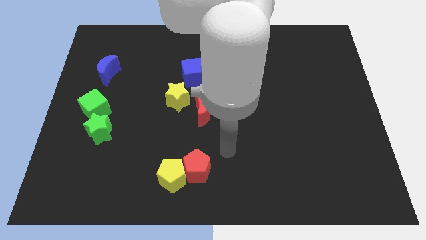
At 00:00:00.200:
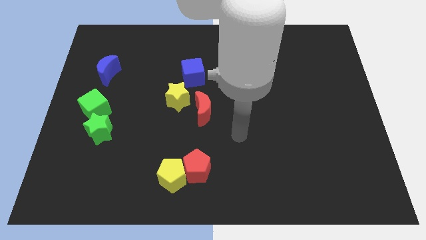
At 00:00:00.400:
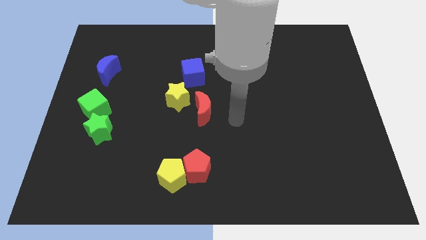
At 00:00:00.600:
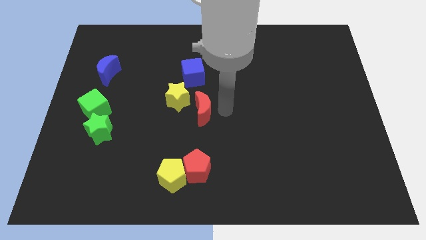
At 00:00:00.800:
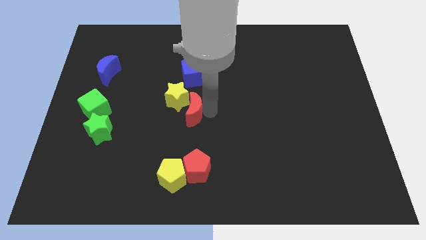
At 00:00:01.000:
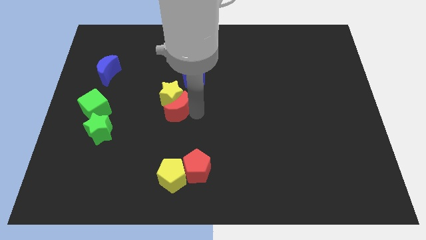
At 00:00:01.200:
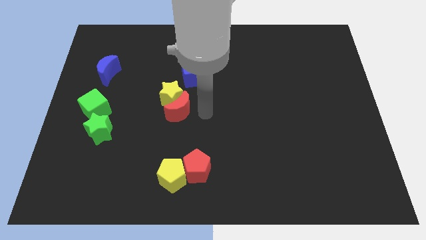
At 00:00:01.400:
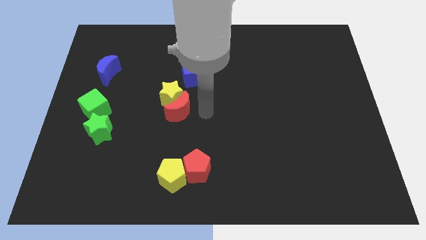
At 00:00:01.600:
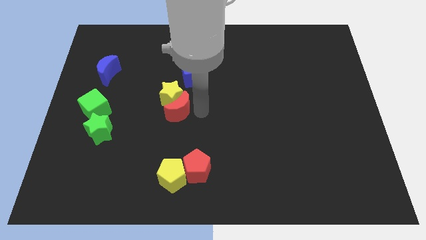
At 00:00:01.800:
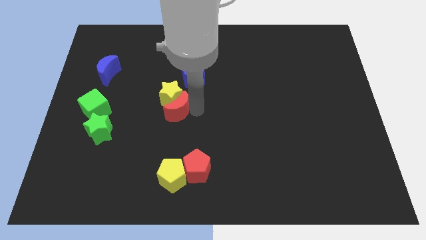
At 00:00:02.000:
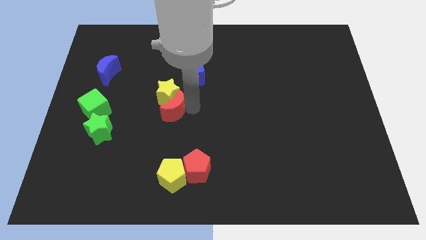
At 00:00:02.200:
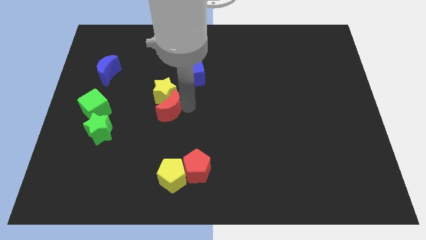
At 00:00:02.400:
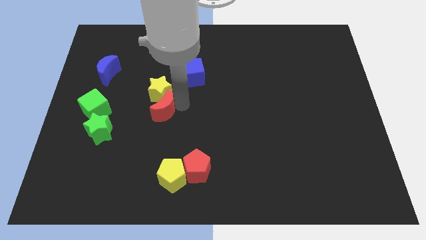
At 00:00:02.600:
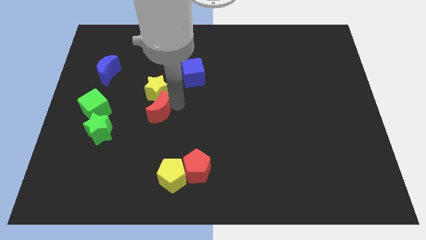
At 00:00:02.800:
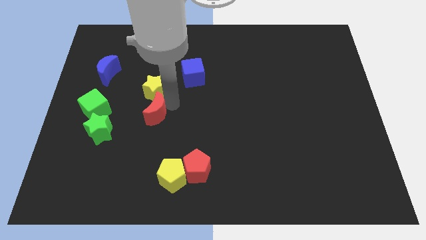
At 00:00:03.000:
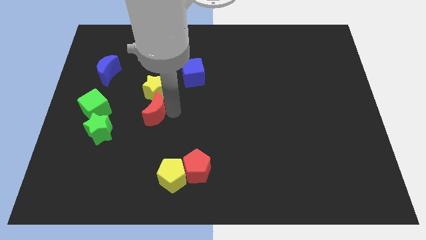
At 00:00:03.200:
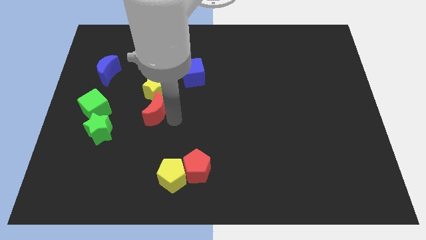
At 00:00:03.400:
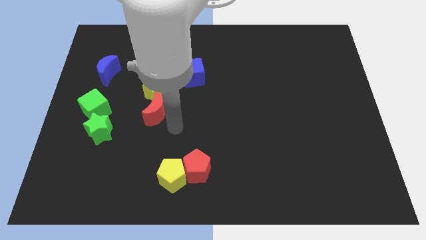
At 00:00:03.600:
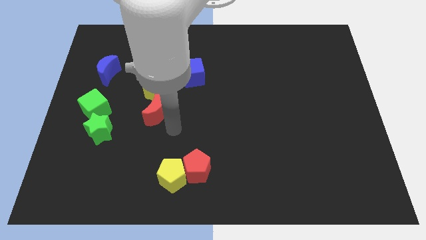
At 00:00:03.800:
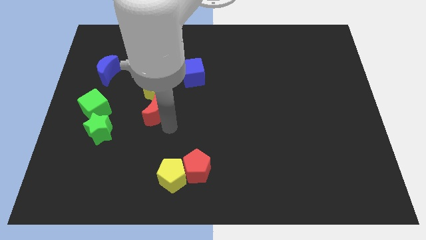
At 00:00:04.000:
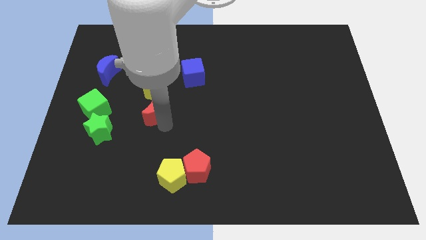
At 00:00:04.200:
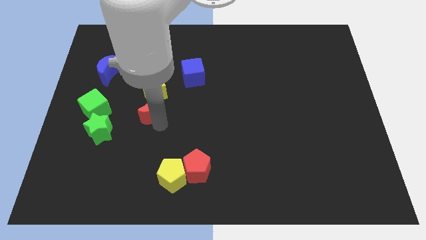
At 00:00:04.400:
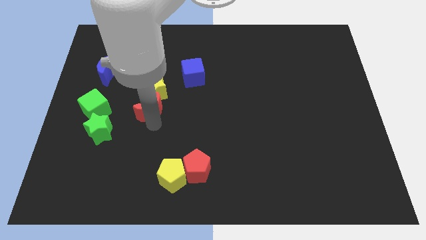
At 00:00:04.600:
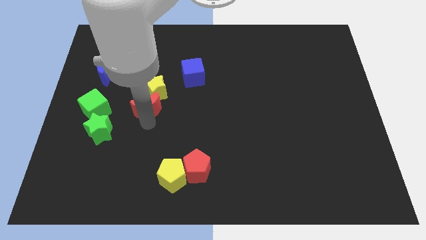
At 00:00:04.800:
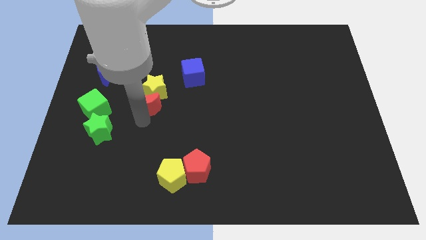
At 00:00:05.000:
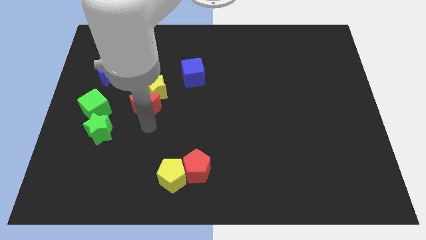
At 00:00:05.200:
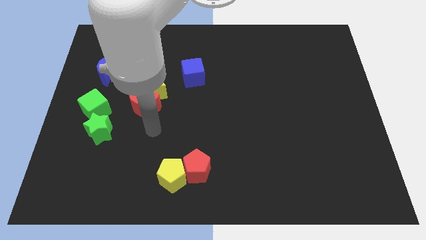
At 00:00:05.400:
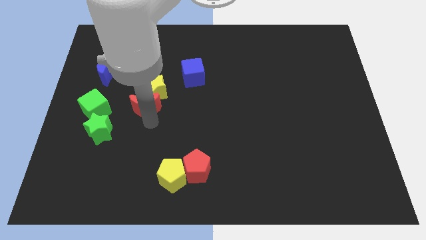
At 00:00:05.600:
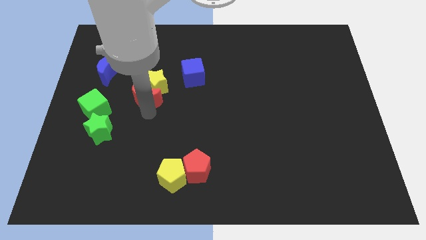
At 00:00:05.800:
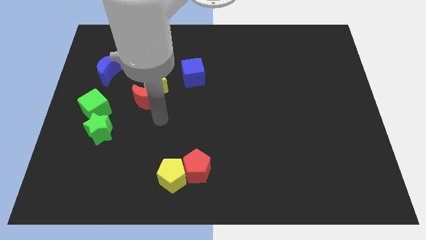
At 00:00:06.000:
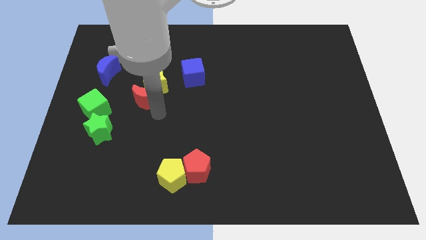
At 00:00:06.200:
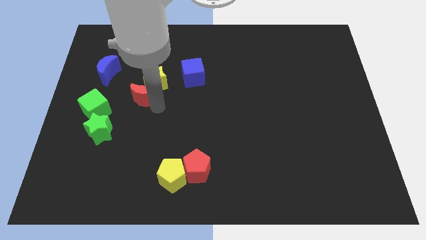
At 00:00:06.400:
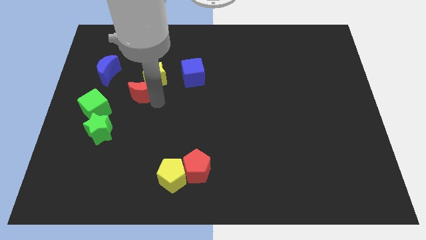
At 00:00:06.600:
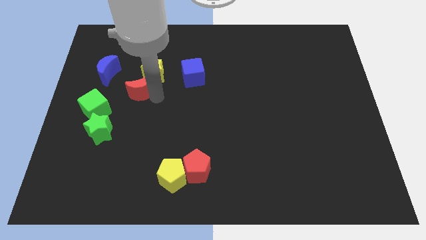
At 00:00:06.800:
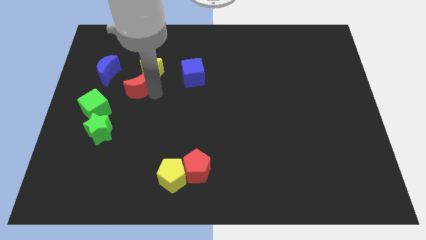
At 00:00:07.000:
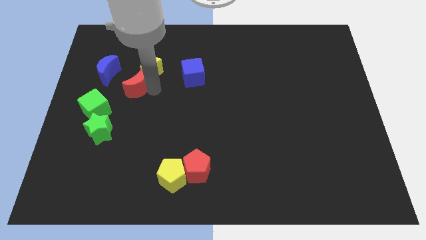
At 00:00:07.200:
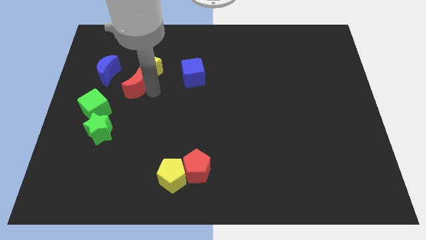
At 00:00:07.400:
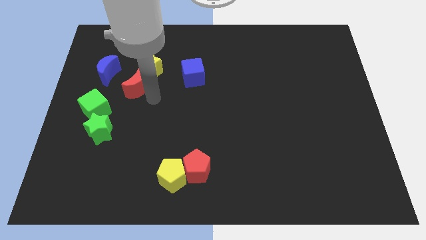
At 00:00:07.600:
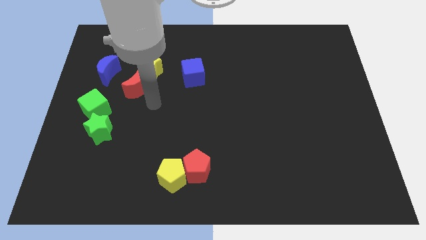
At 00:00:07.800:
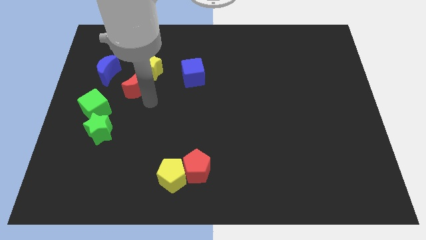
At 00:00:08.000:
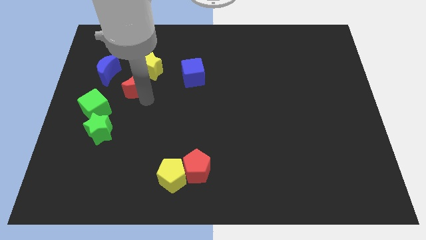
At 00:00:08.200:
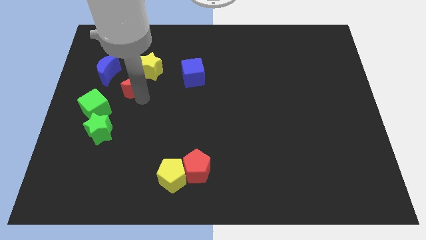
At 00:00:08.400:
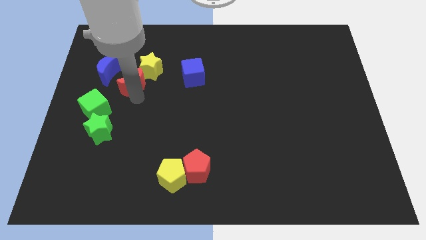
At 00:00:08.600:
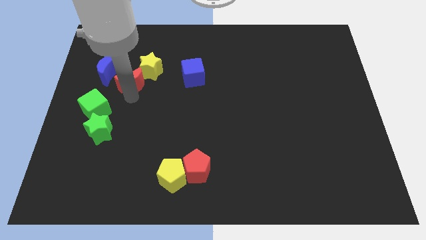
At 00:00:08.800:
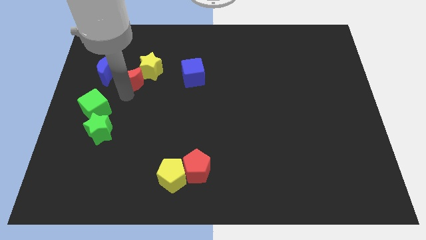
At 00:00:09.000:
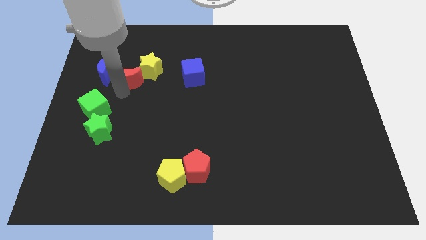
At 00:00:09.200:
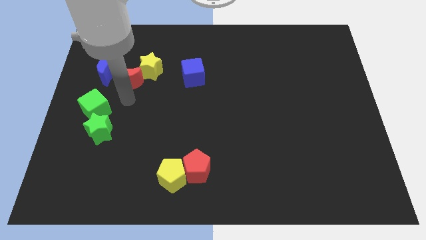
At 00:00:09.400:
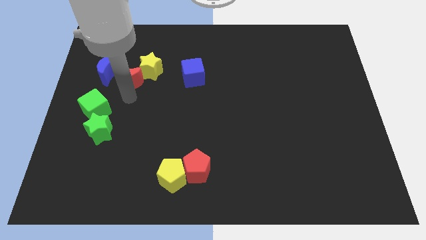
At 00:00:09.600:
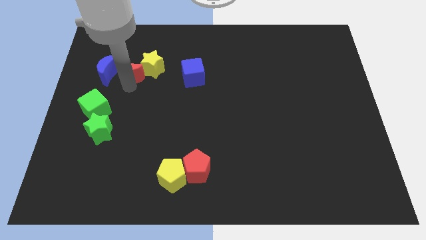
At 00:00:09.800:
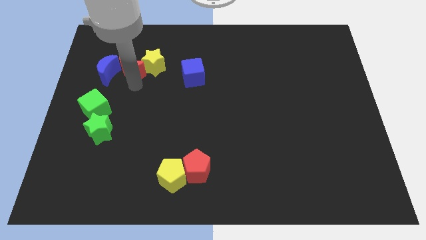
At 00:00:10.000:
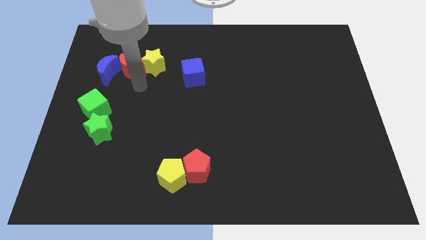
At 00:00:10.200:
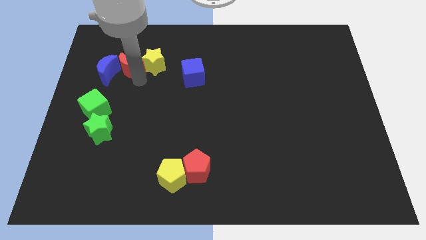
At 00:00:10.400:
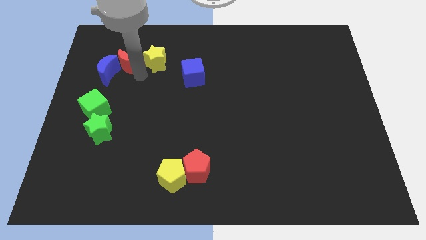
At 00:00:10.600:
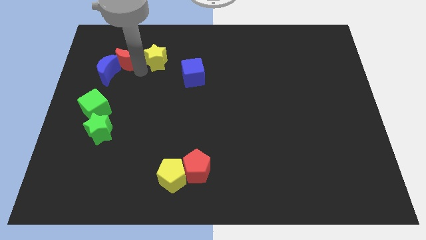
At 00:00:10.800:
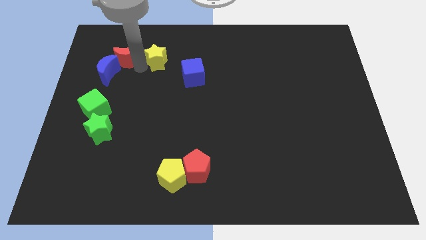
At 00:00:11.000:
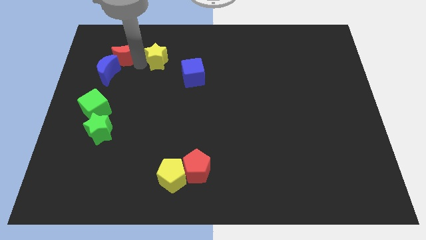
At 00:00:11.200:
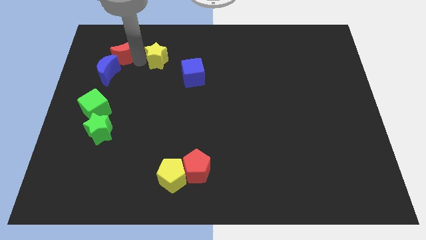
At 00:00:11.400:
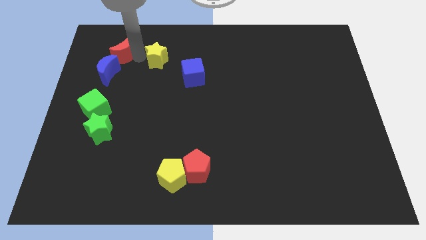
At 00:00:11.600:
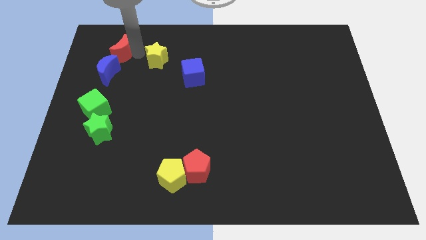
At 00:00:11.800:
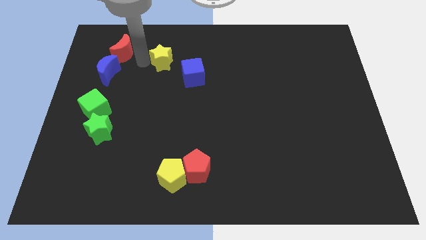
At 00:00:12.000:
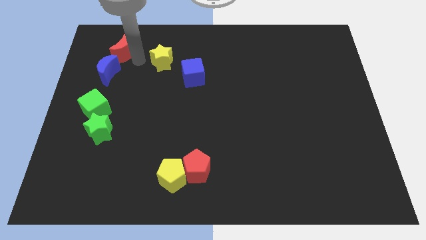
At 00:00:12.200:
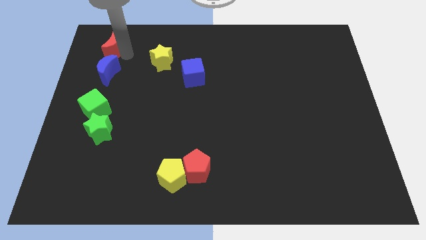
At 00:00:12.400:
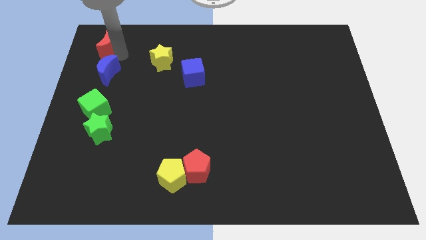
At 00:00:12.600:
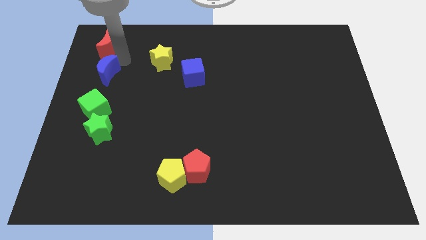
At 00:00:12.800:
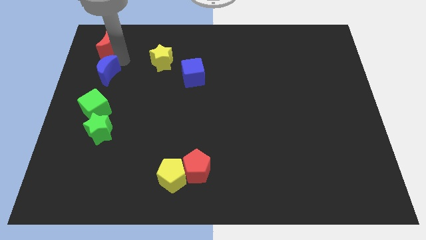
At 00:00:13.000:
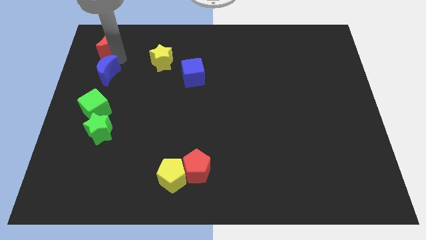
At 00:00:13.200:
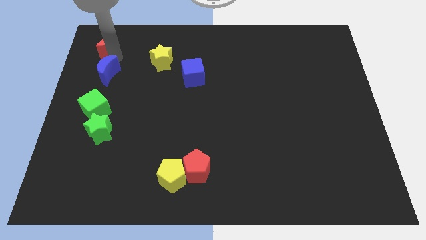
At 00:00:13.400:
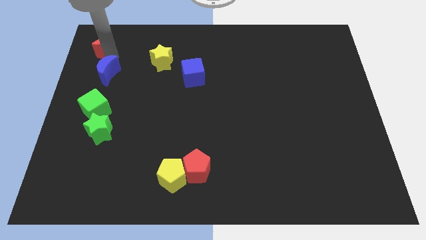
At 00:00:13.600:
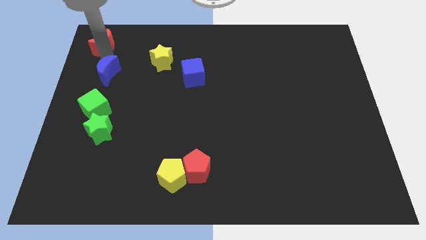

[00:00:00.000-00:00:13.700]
put the red moon to the top left of the board
